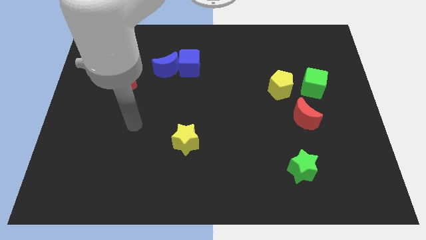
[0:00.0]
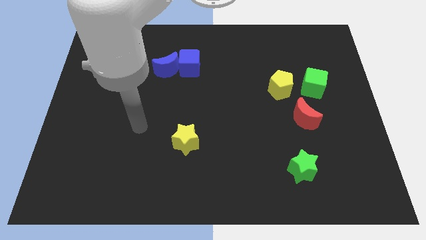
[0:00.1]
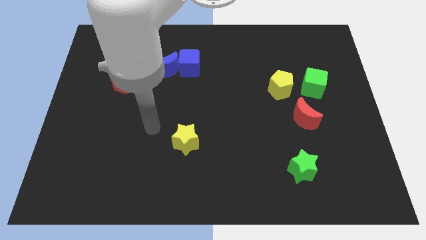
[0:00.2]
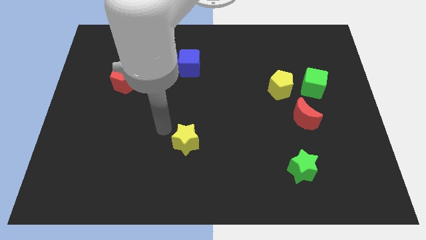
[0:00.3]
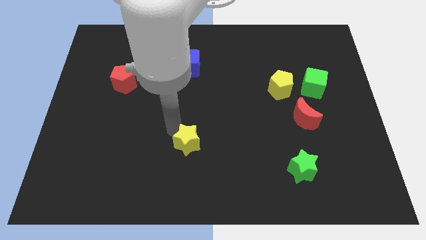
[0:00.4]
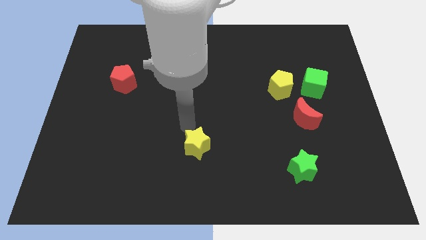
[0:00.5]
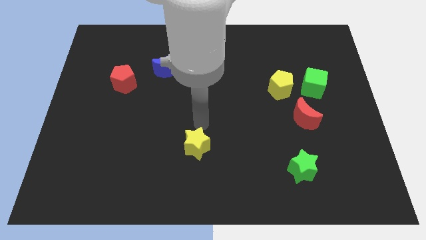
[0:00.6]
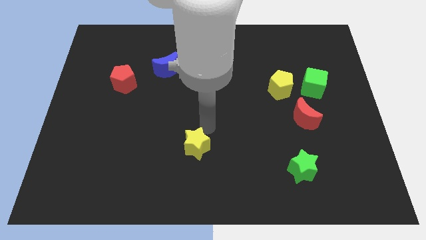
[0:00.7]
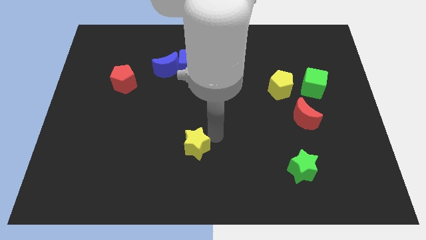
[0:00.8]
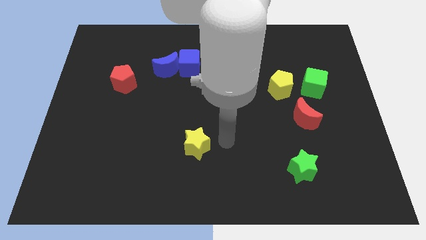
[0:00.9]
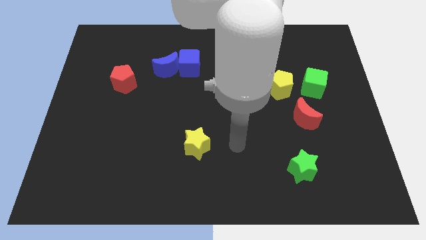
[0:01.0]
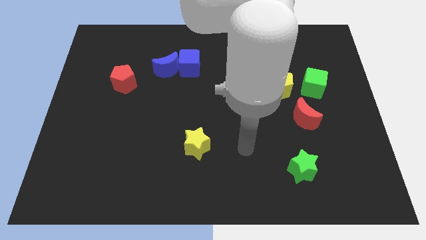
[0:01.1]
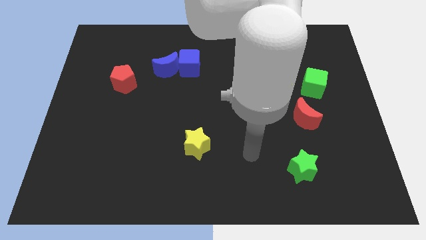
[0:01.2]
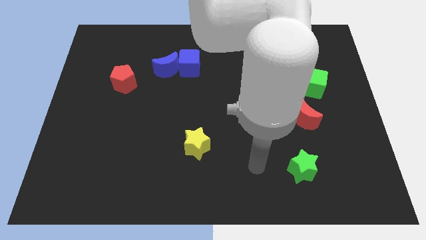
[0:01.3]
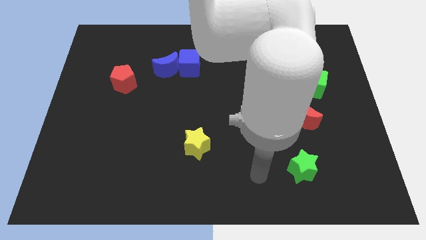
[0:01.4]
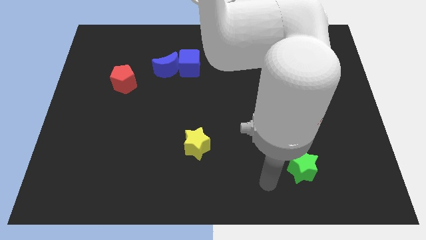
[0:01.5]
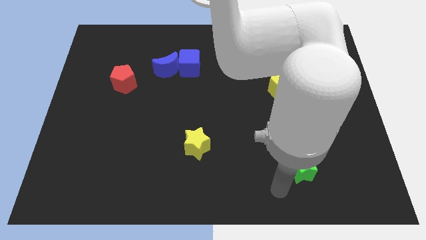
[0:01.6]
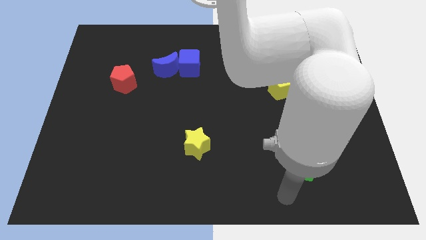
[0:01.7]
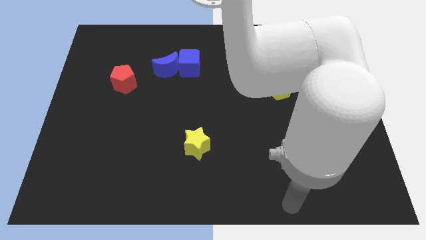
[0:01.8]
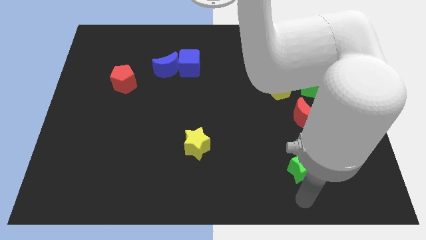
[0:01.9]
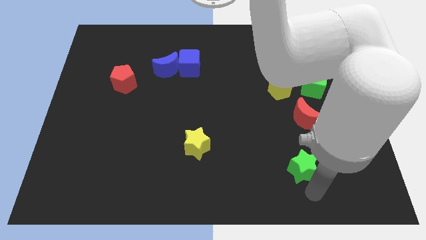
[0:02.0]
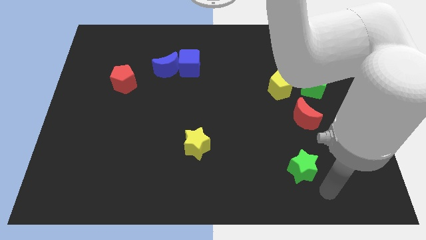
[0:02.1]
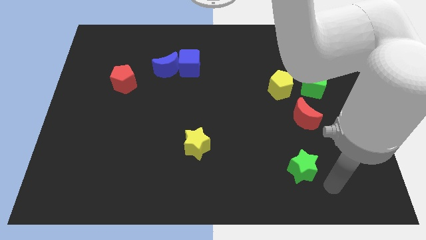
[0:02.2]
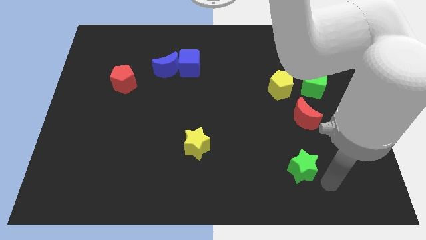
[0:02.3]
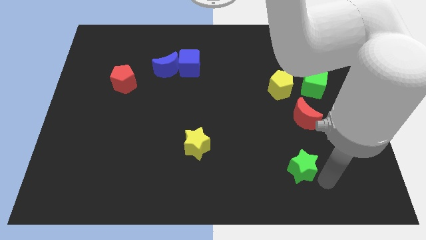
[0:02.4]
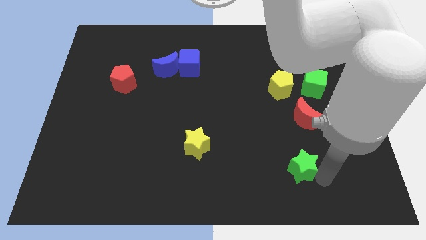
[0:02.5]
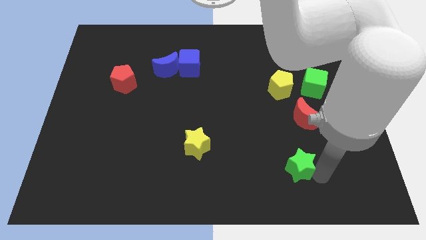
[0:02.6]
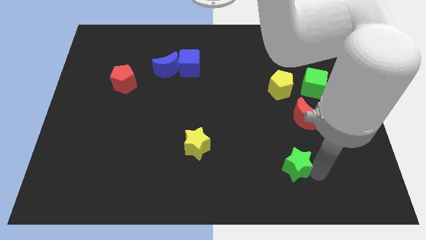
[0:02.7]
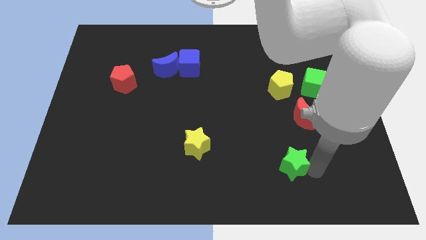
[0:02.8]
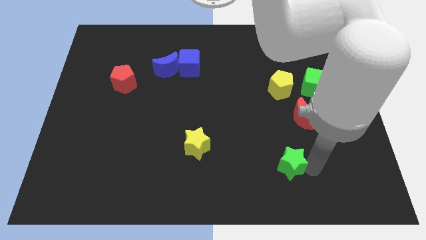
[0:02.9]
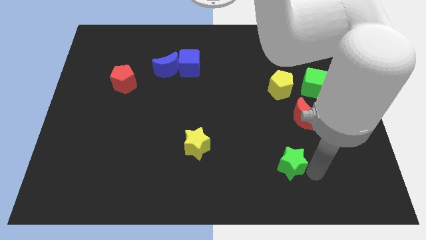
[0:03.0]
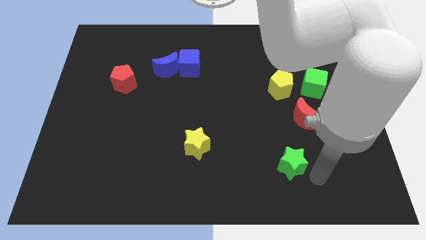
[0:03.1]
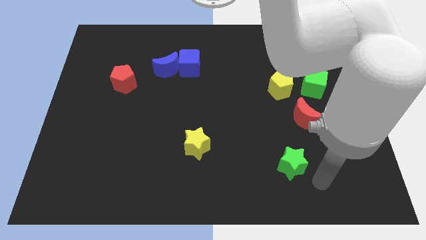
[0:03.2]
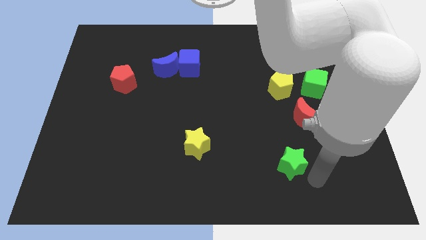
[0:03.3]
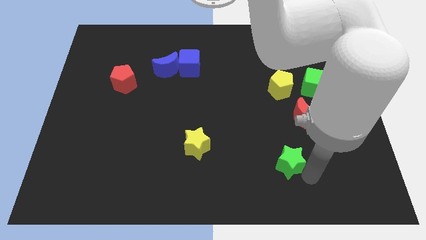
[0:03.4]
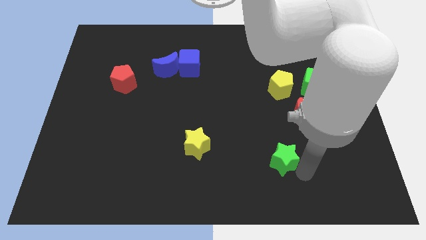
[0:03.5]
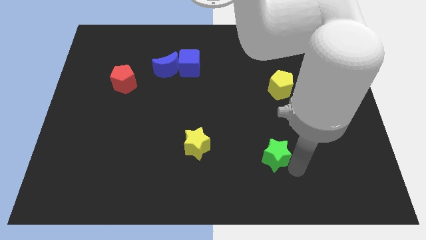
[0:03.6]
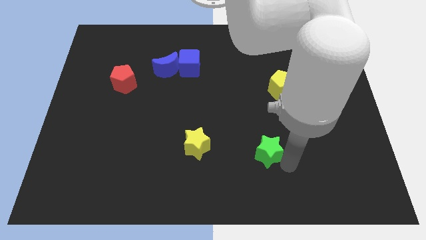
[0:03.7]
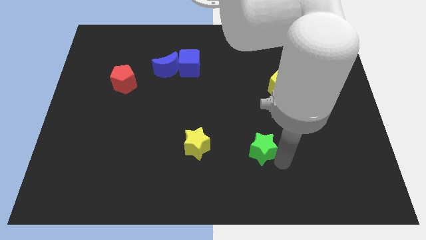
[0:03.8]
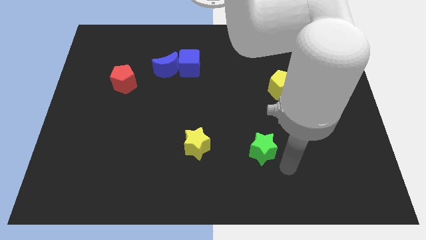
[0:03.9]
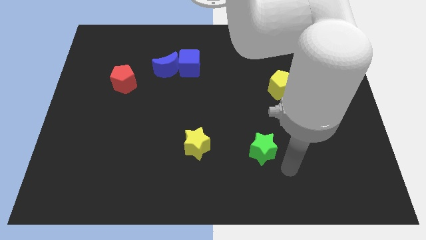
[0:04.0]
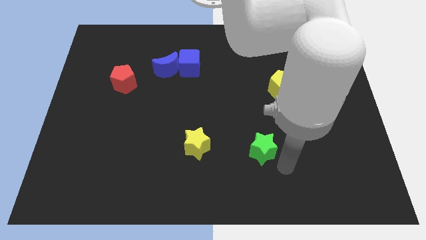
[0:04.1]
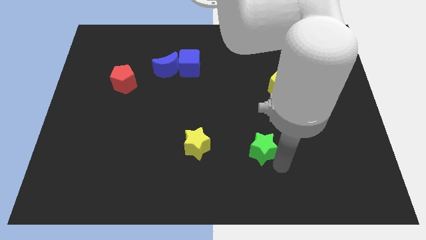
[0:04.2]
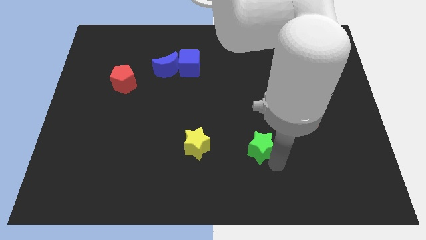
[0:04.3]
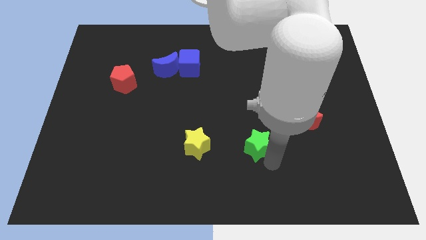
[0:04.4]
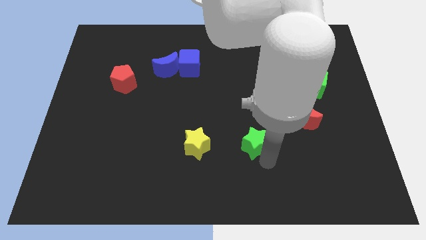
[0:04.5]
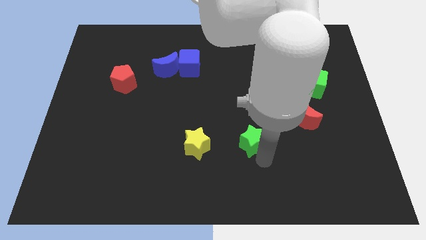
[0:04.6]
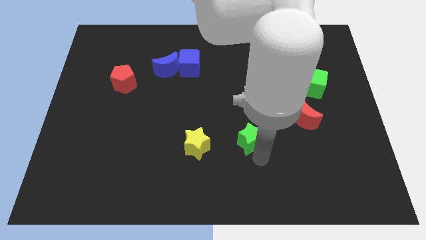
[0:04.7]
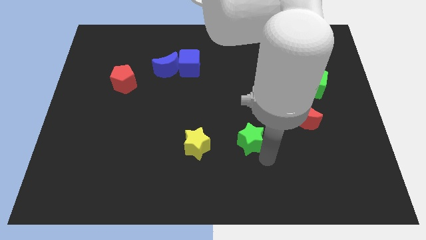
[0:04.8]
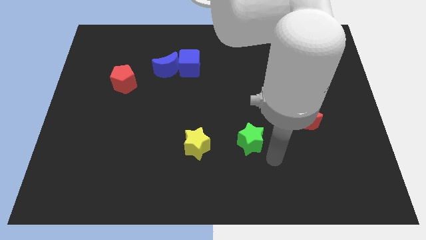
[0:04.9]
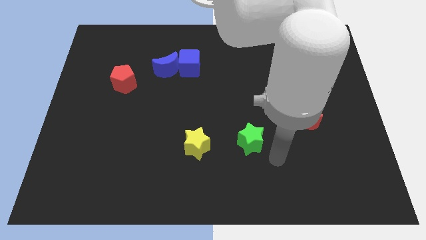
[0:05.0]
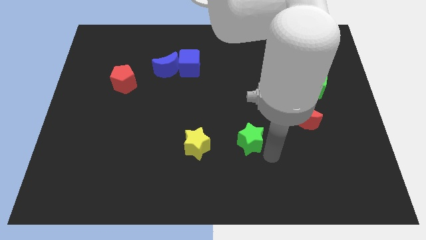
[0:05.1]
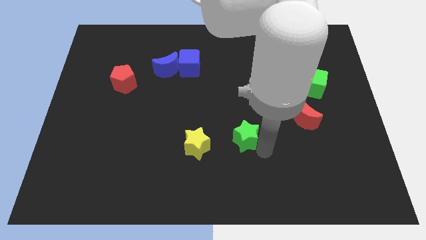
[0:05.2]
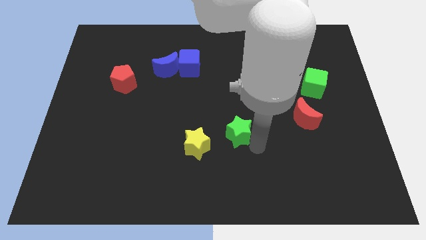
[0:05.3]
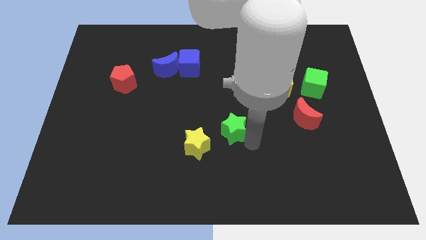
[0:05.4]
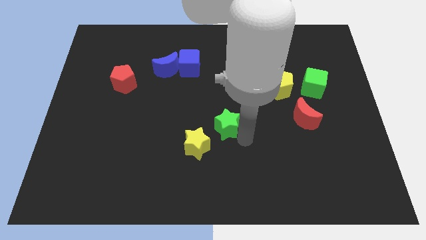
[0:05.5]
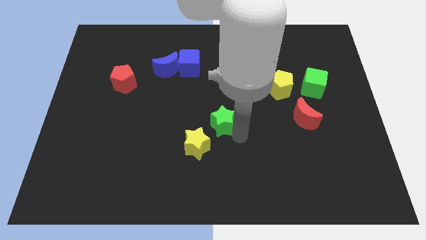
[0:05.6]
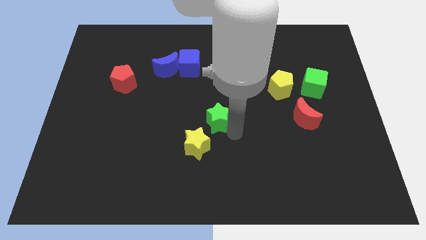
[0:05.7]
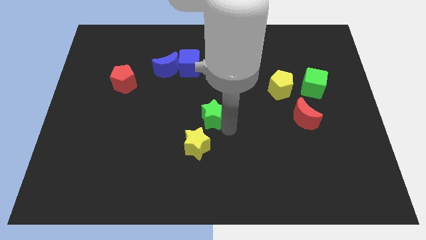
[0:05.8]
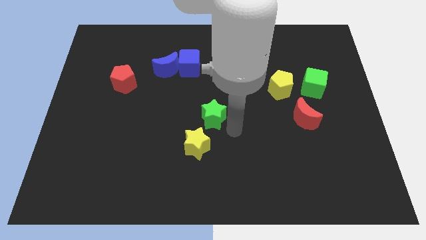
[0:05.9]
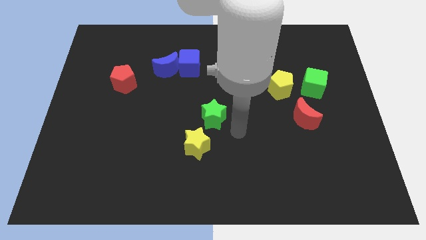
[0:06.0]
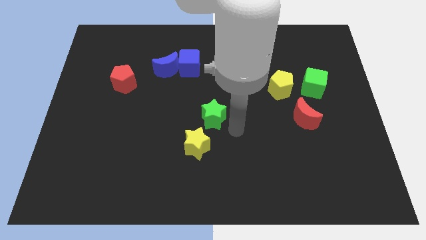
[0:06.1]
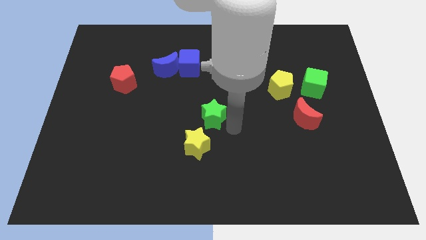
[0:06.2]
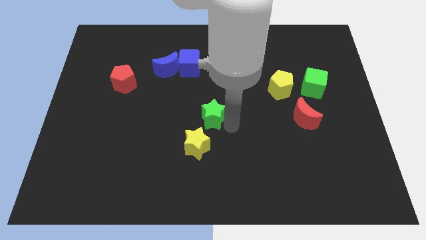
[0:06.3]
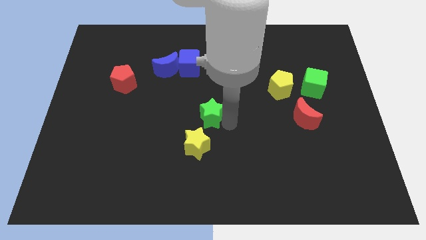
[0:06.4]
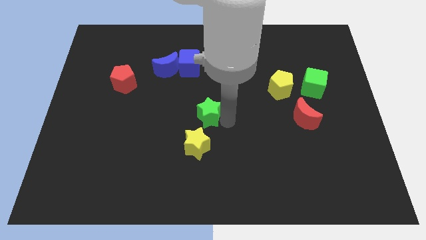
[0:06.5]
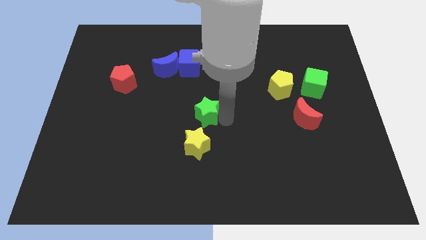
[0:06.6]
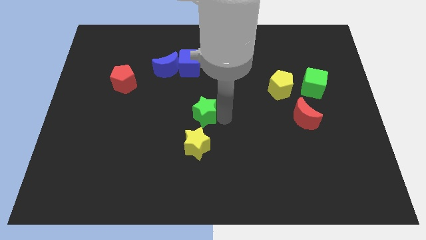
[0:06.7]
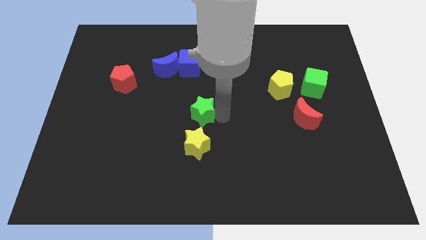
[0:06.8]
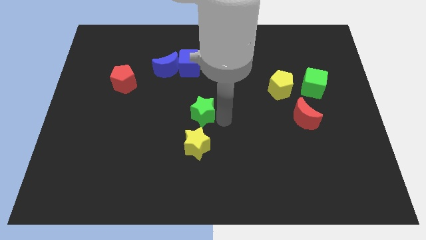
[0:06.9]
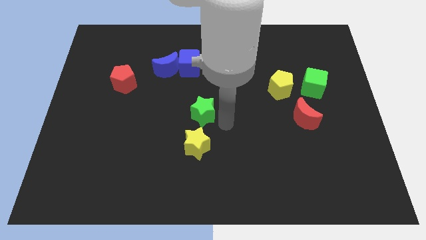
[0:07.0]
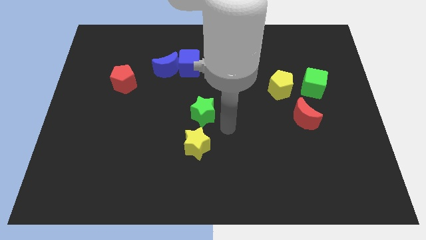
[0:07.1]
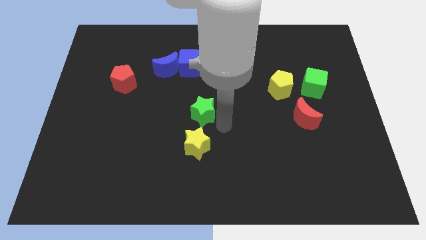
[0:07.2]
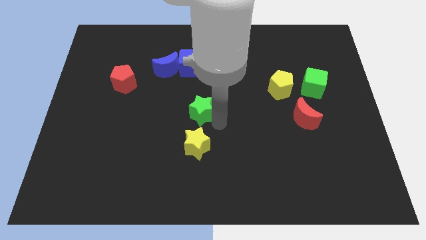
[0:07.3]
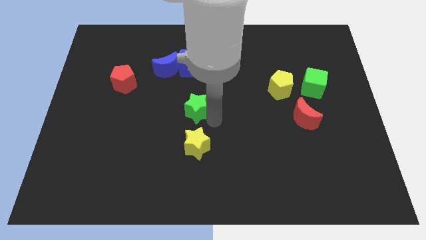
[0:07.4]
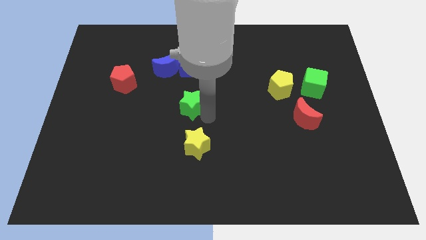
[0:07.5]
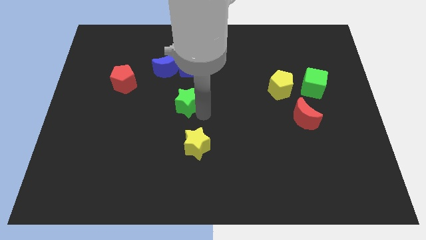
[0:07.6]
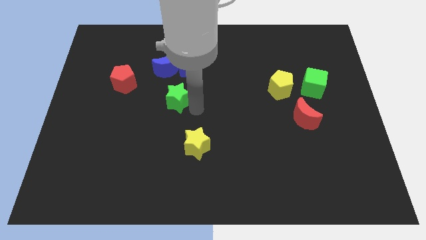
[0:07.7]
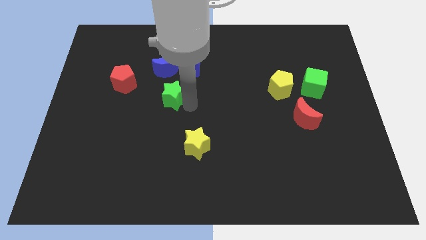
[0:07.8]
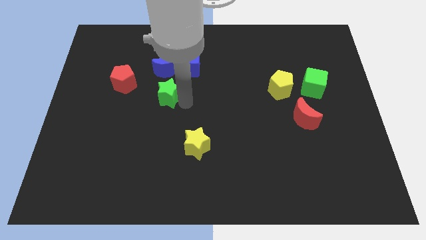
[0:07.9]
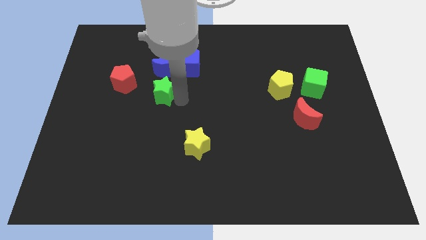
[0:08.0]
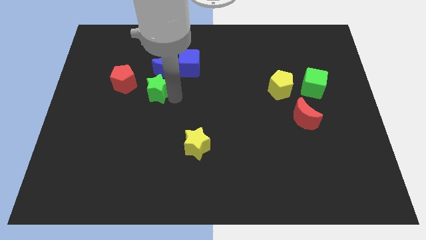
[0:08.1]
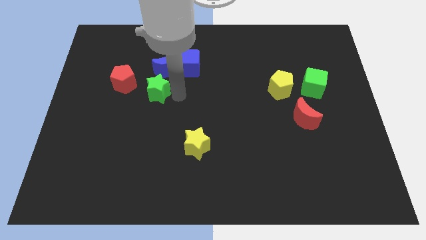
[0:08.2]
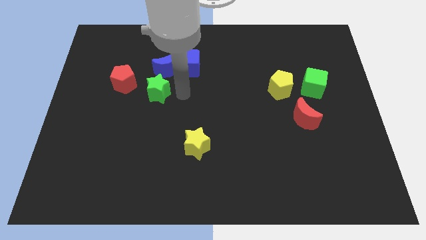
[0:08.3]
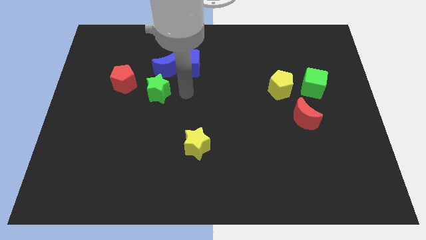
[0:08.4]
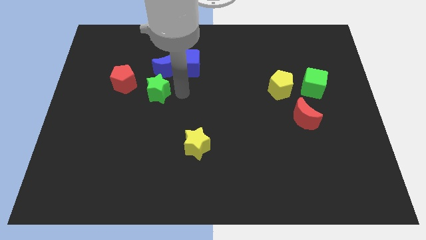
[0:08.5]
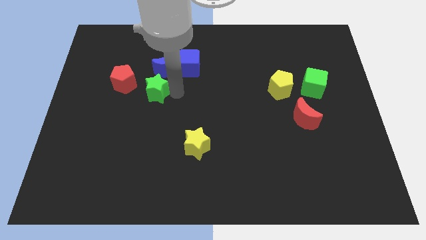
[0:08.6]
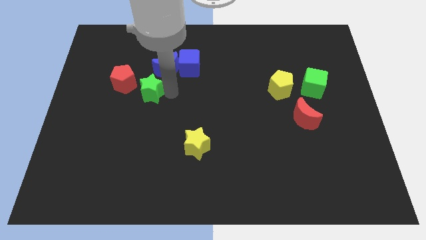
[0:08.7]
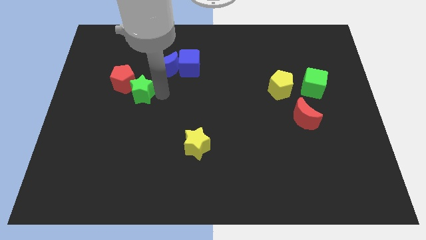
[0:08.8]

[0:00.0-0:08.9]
move the green star towards the red pentagon
